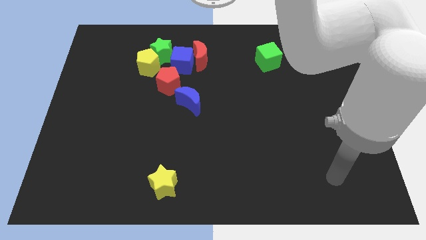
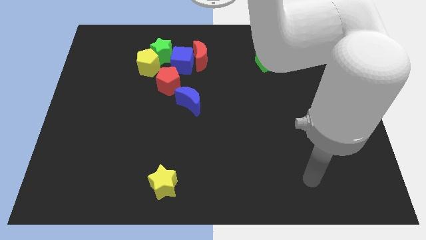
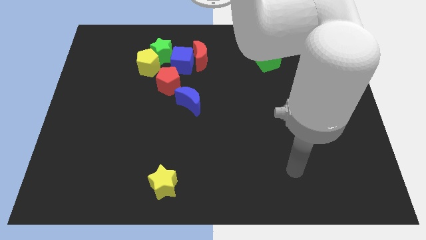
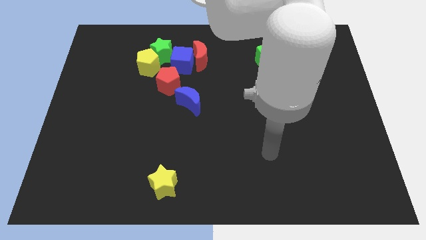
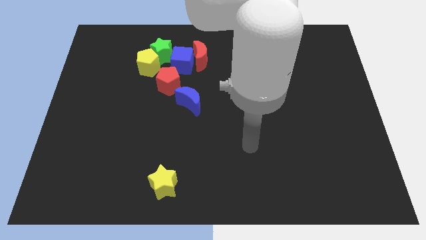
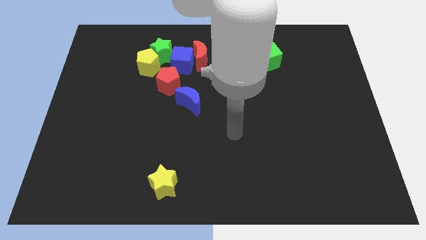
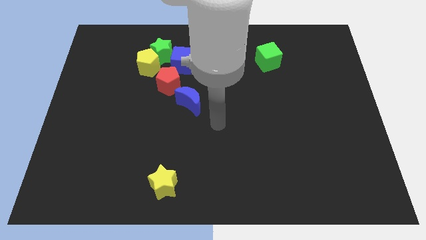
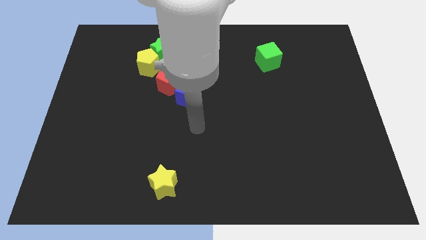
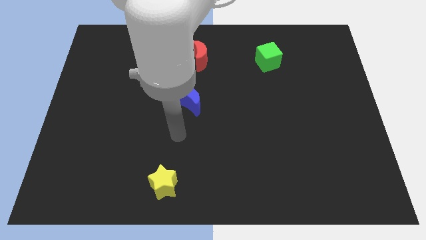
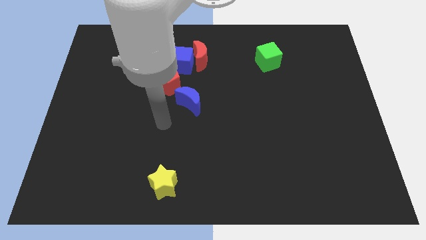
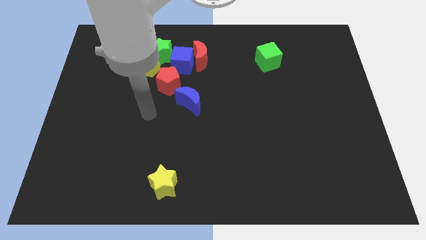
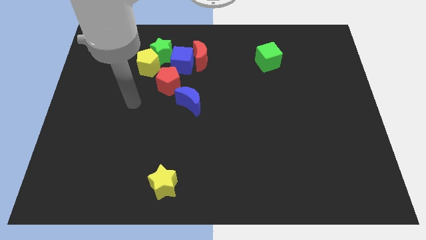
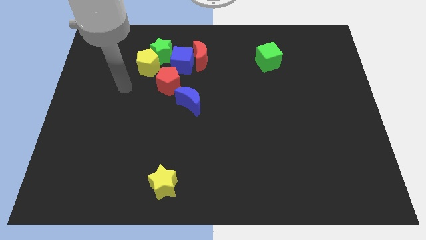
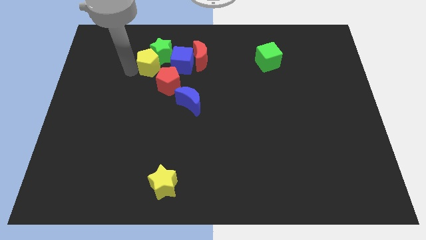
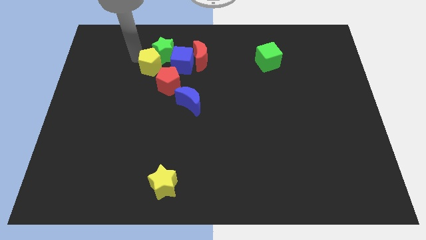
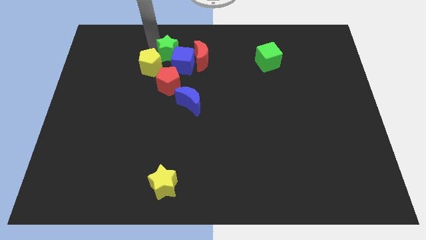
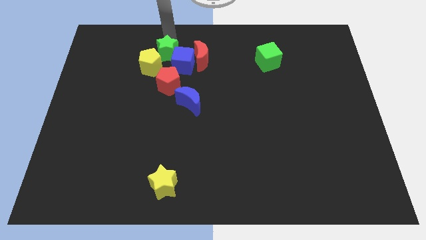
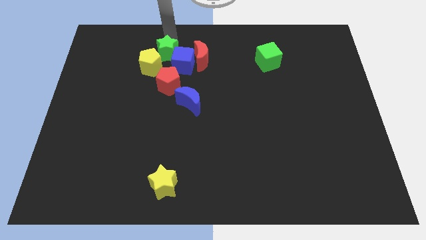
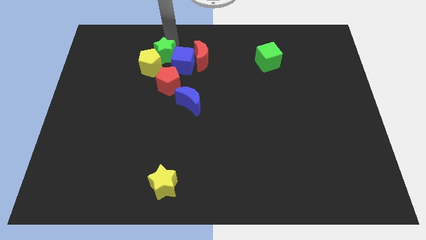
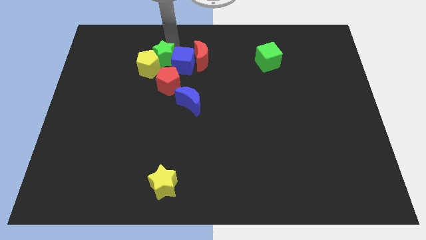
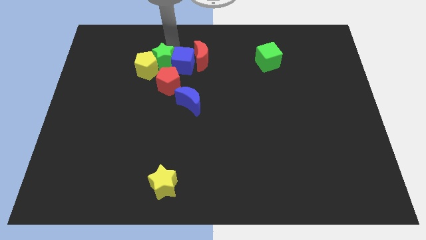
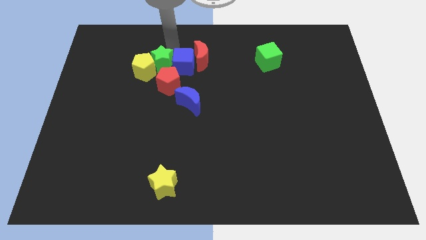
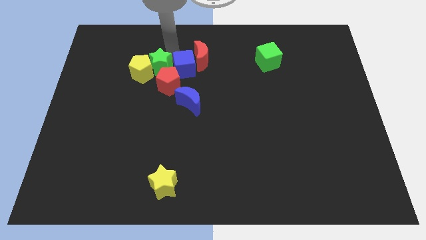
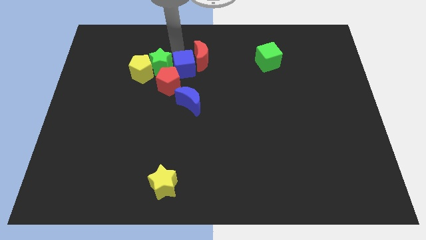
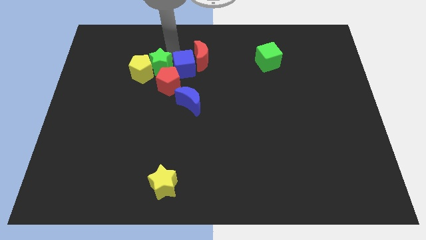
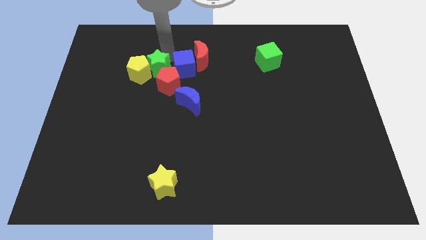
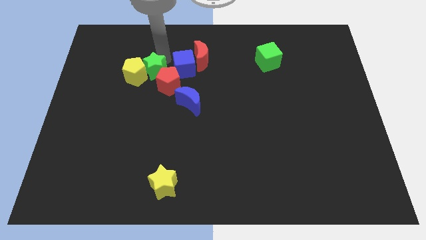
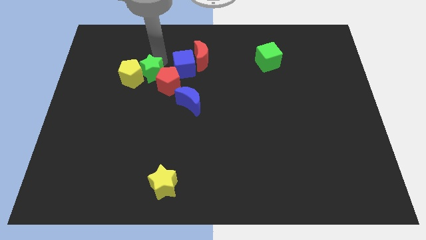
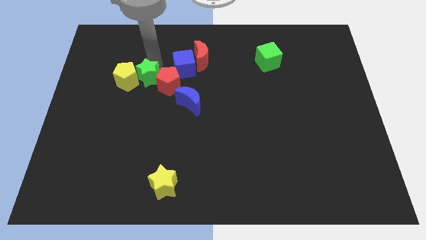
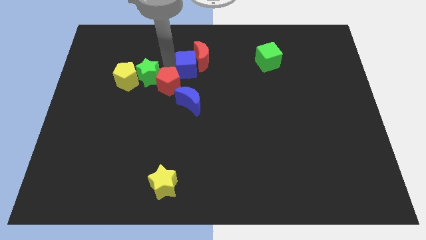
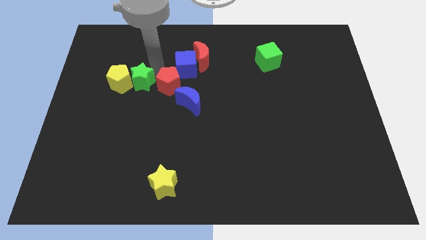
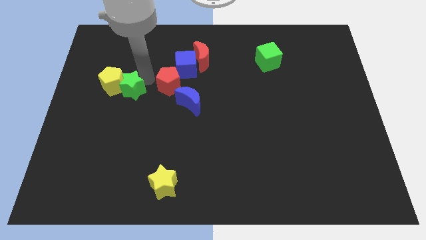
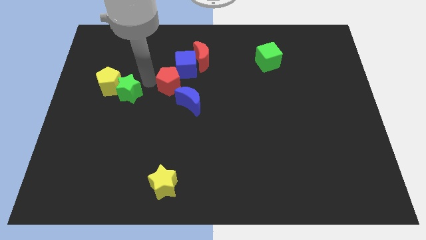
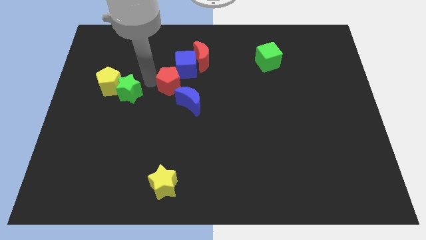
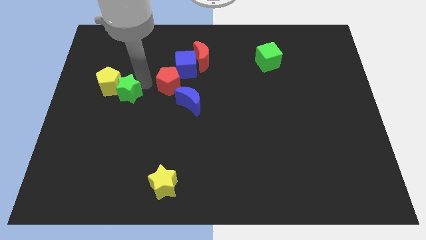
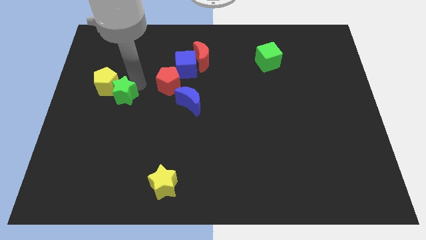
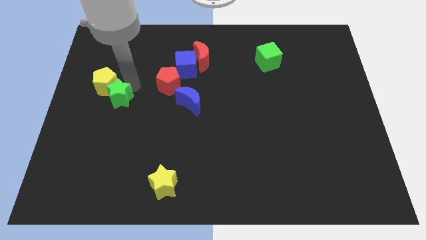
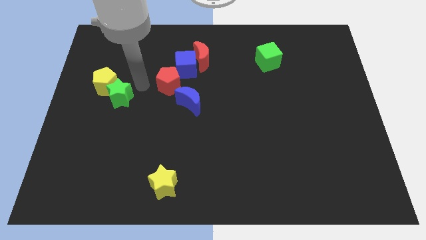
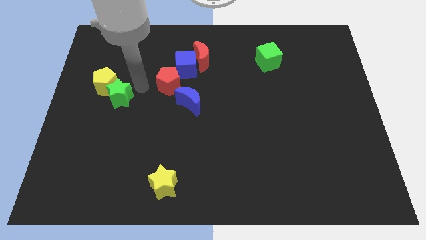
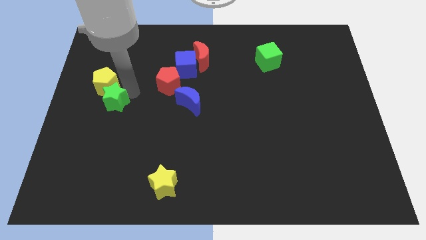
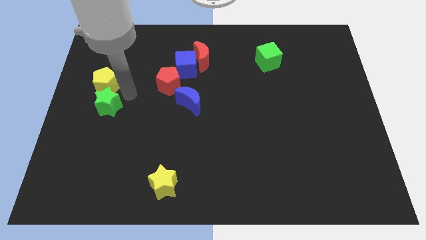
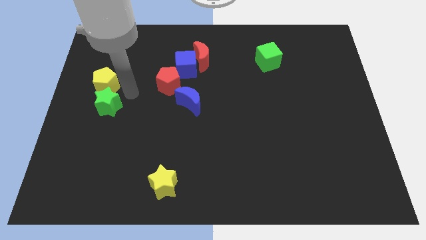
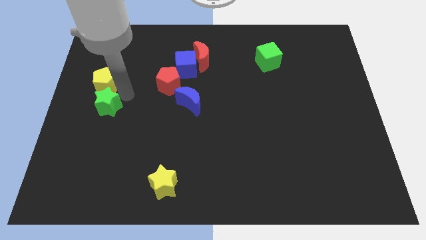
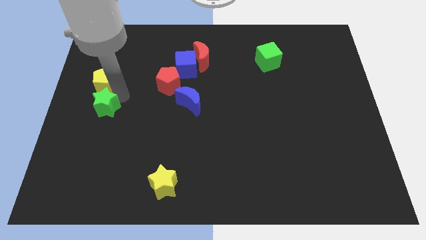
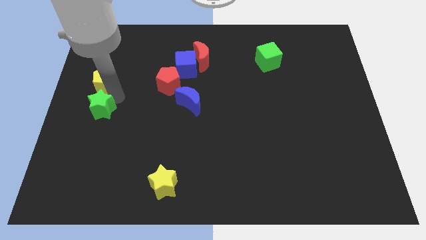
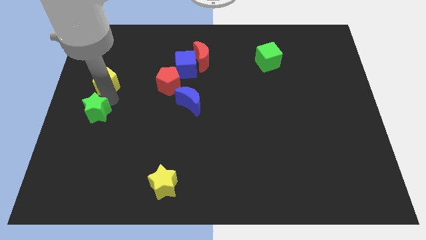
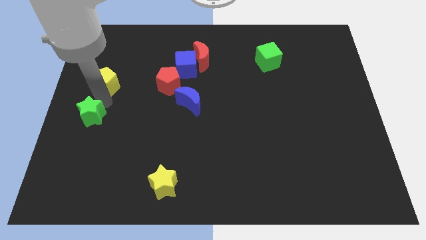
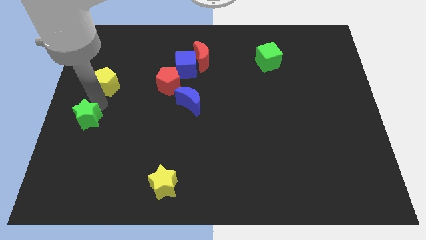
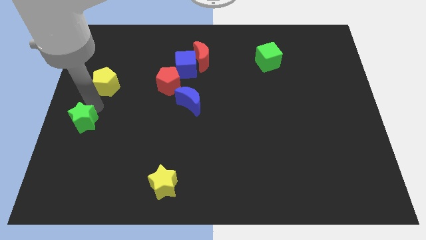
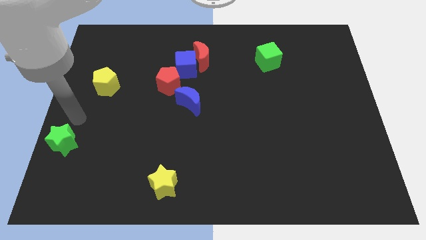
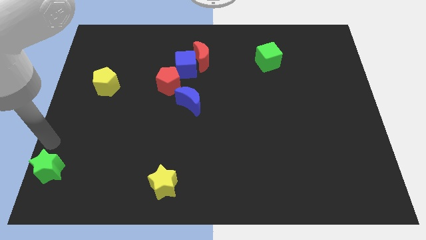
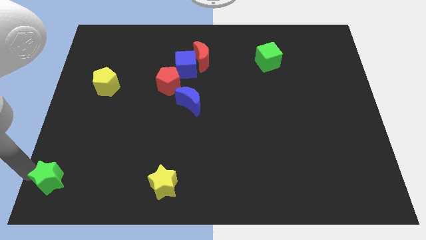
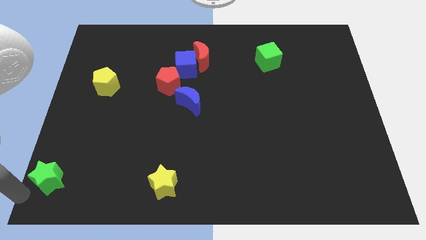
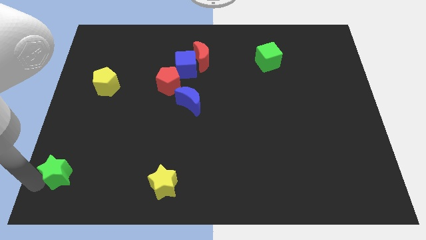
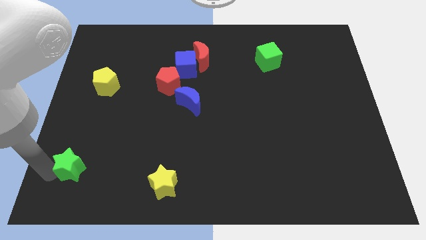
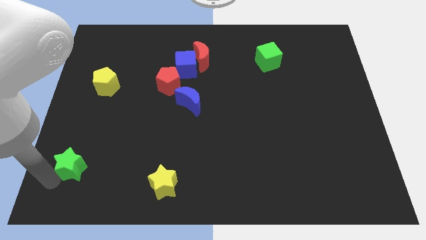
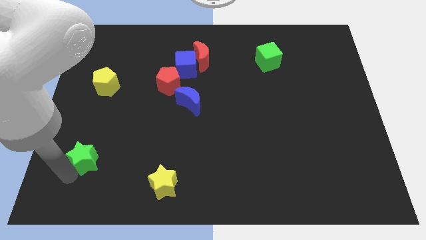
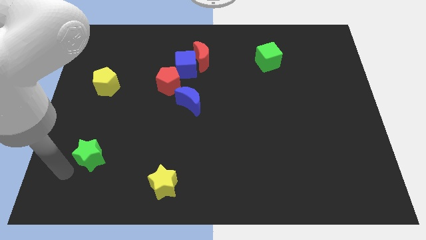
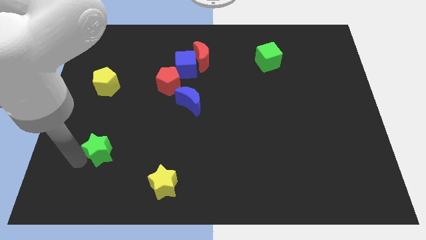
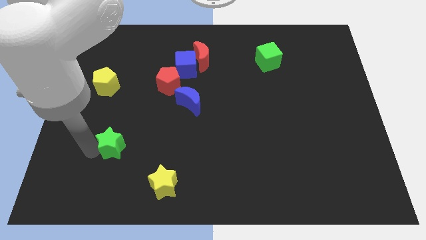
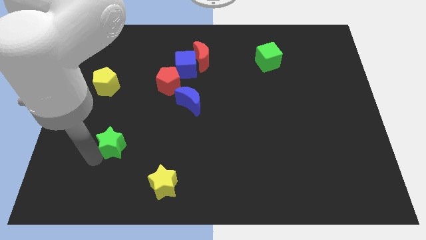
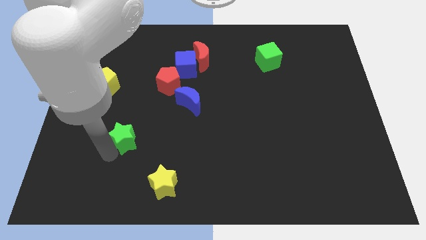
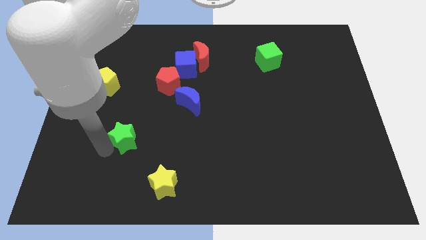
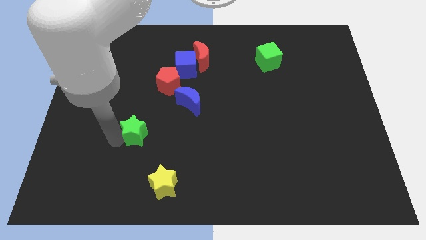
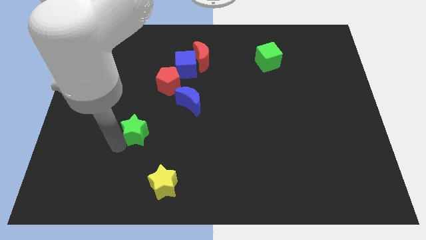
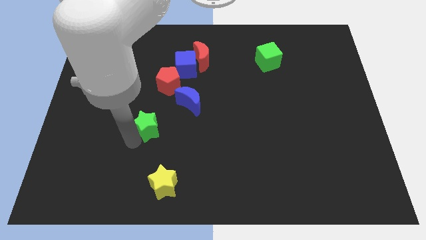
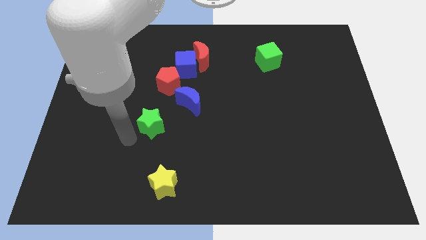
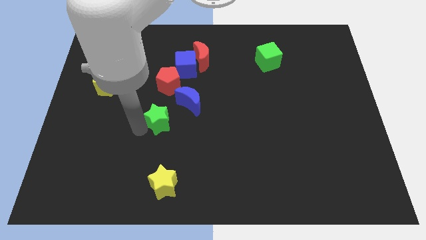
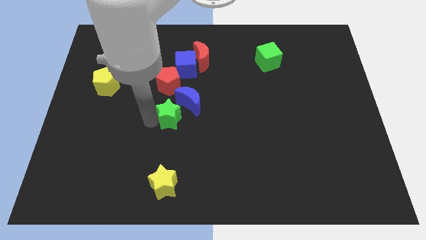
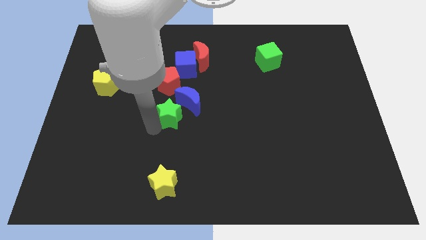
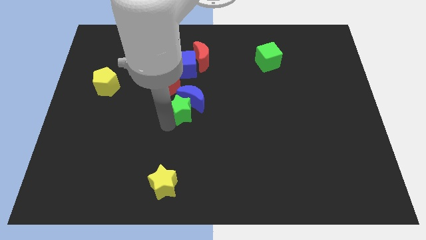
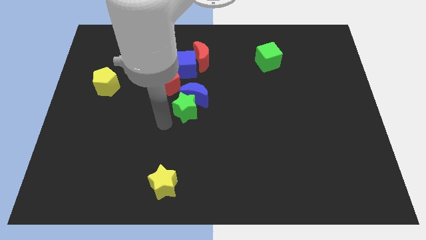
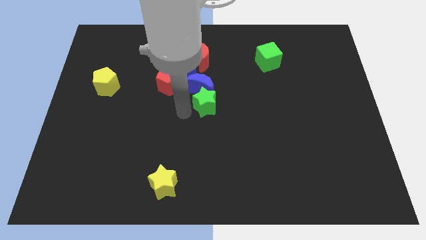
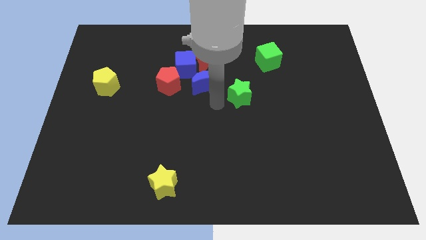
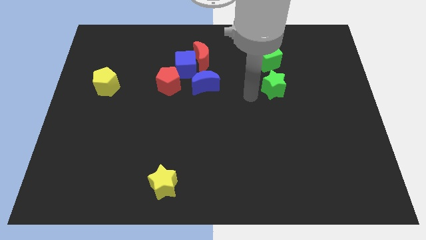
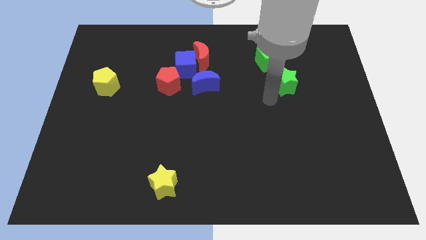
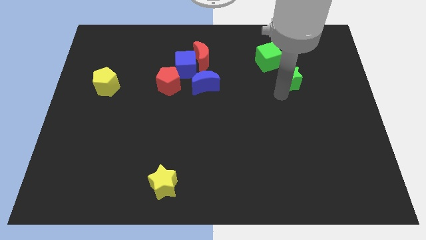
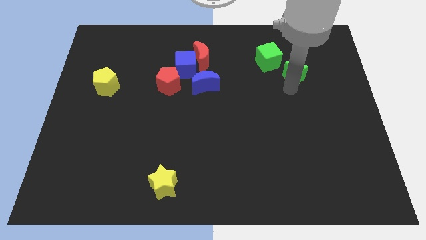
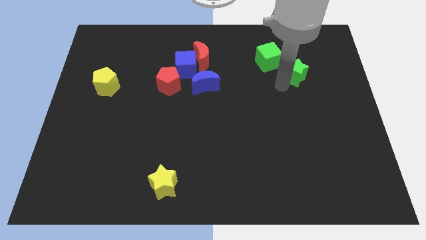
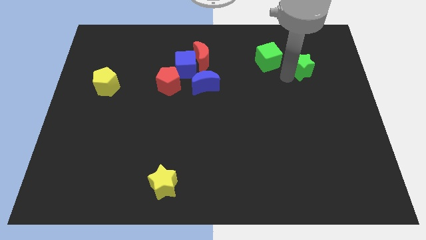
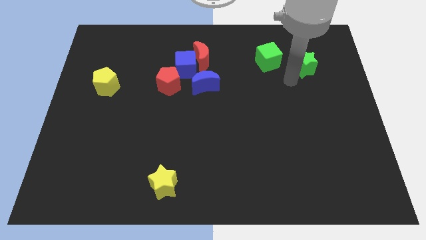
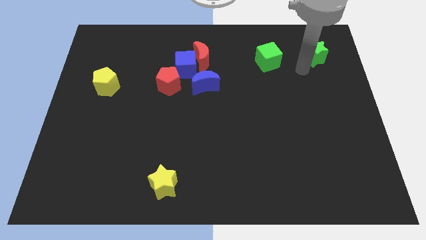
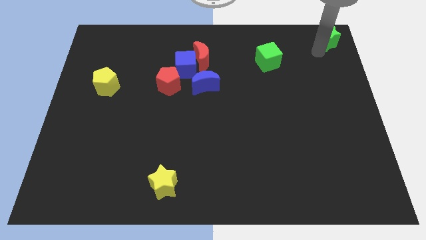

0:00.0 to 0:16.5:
put the green star to the top right corner
